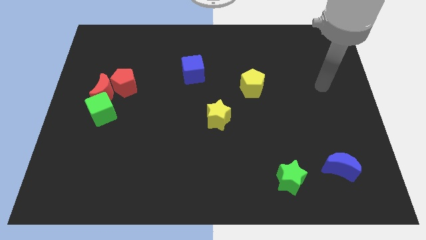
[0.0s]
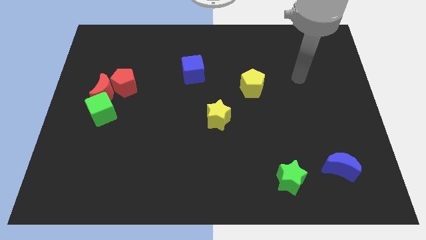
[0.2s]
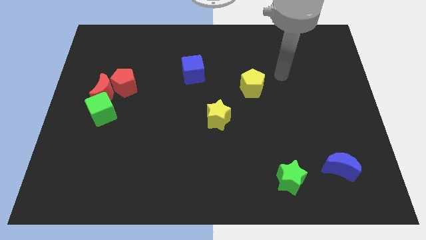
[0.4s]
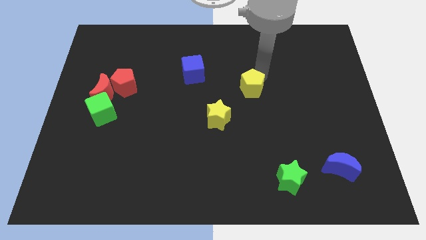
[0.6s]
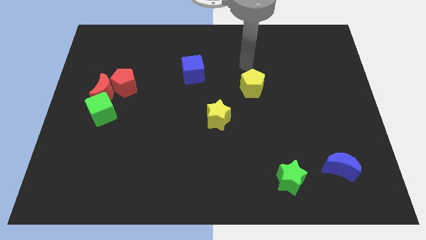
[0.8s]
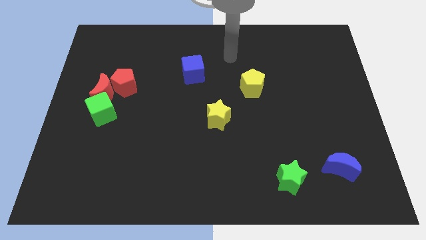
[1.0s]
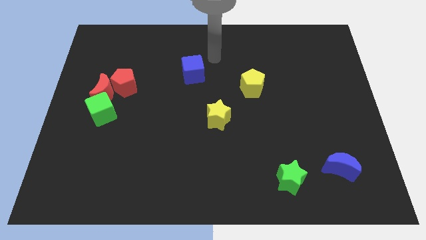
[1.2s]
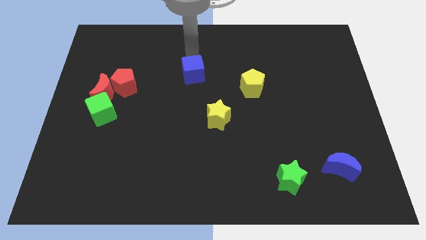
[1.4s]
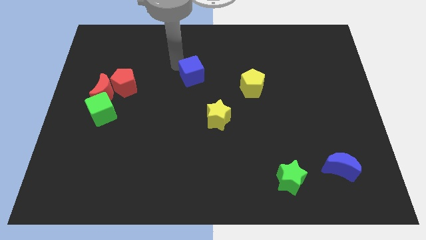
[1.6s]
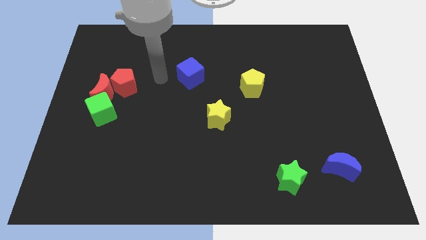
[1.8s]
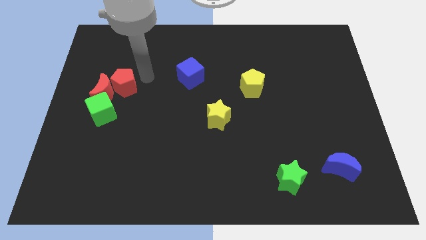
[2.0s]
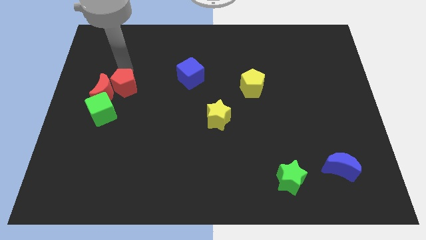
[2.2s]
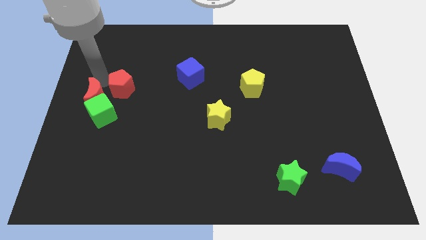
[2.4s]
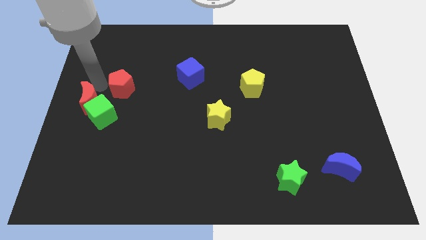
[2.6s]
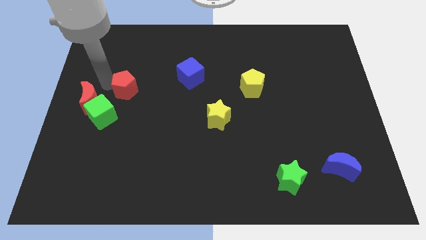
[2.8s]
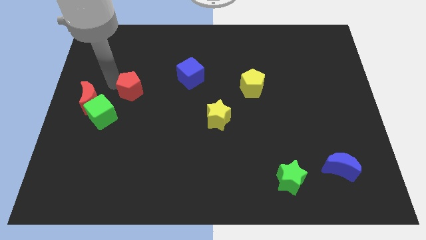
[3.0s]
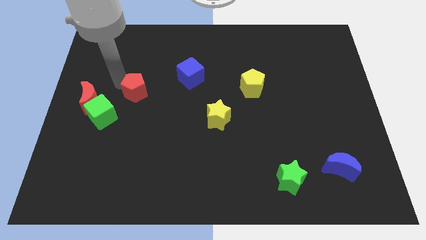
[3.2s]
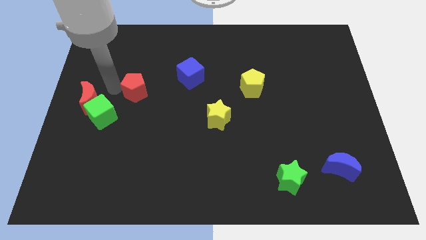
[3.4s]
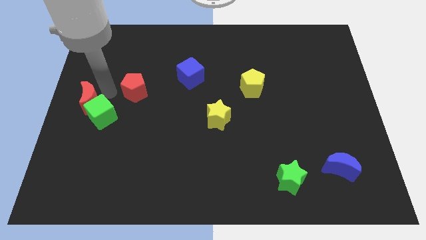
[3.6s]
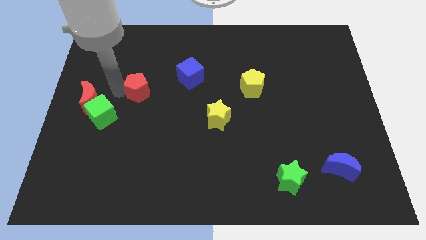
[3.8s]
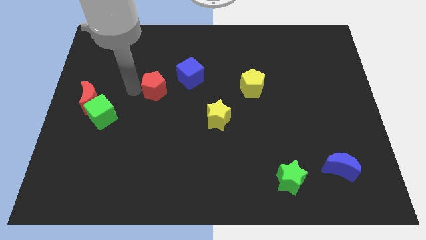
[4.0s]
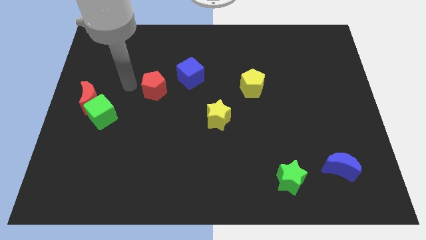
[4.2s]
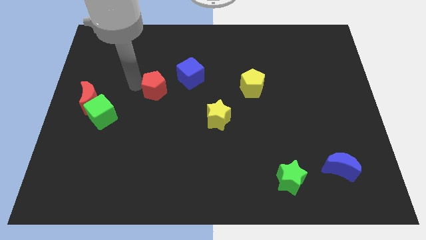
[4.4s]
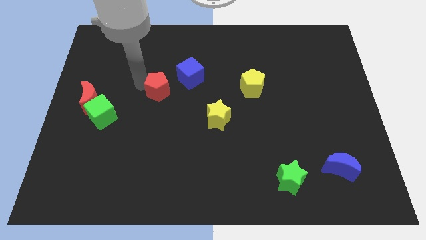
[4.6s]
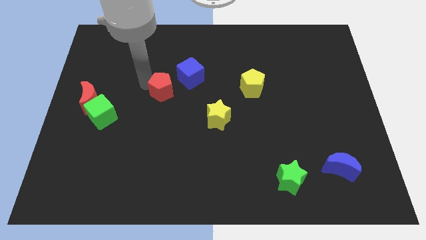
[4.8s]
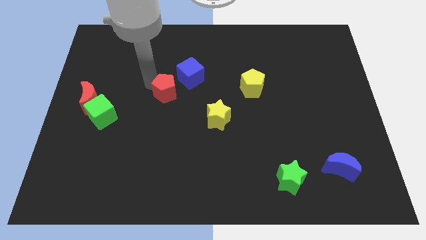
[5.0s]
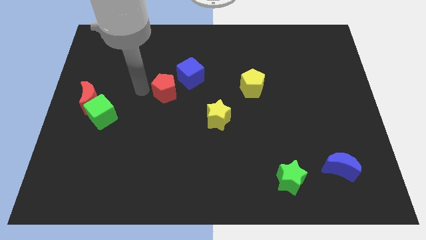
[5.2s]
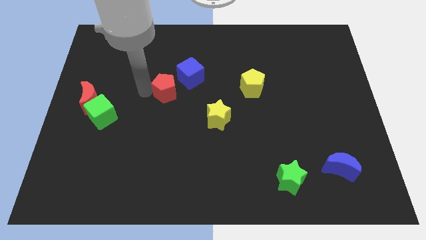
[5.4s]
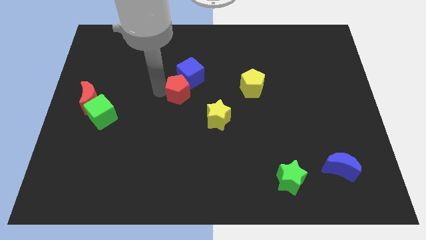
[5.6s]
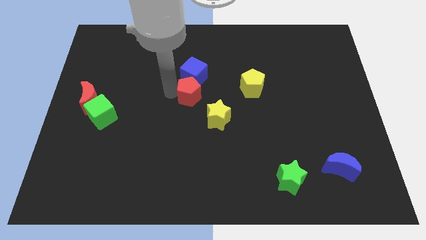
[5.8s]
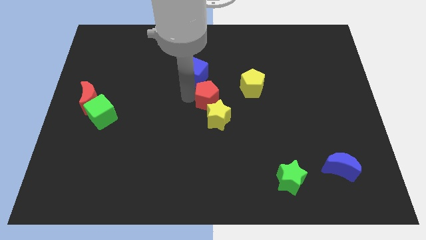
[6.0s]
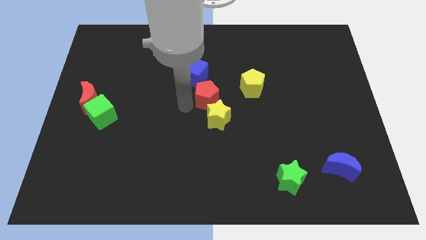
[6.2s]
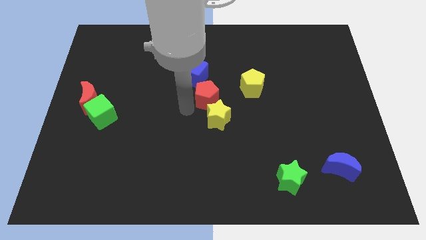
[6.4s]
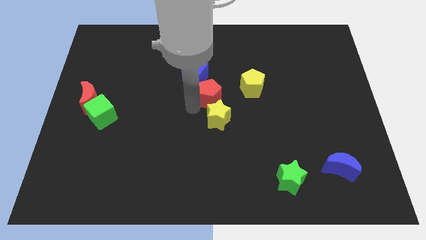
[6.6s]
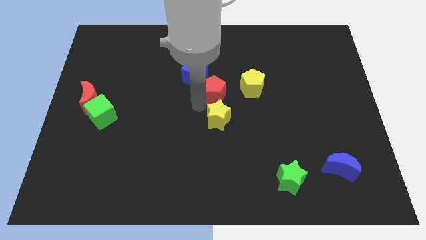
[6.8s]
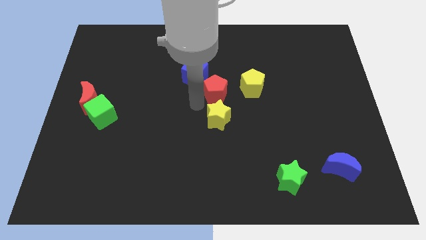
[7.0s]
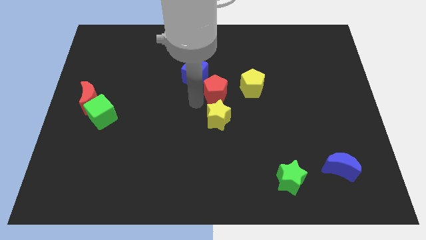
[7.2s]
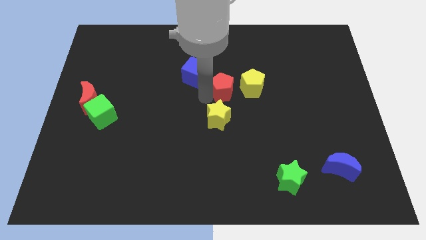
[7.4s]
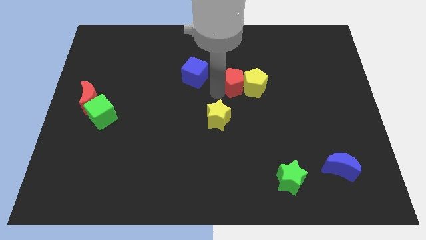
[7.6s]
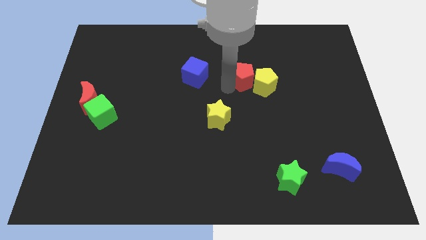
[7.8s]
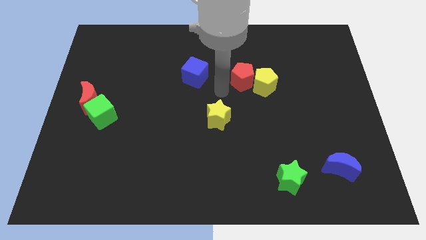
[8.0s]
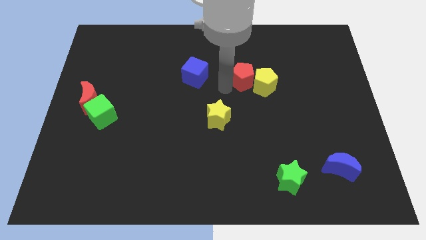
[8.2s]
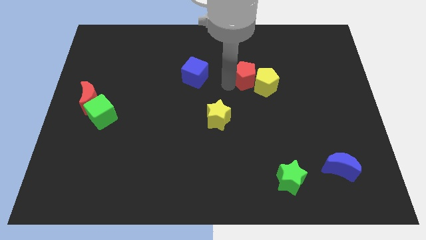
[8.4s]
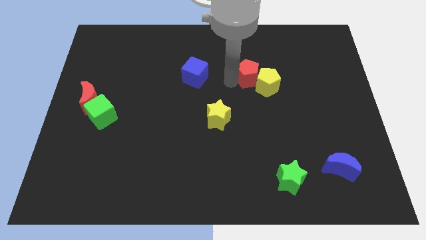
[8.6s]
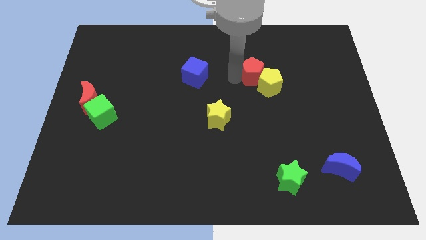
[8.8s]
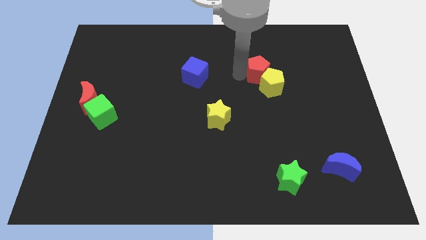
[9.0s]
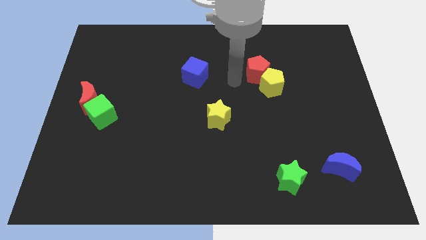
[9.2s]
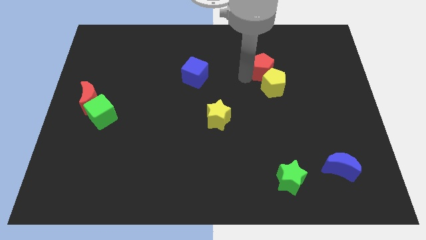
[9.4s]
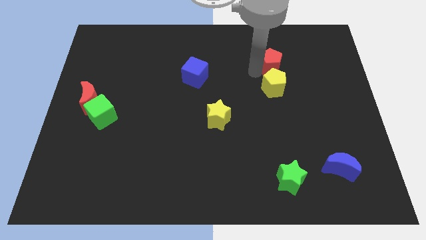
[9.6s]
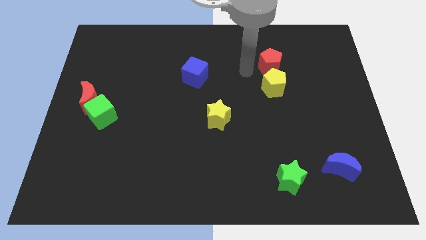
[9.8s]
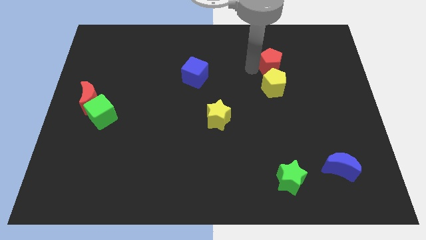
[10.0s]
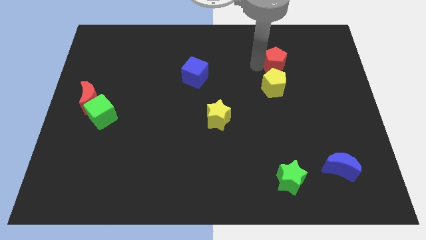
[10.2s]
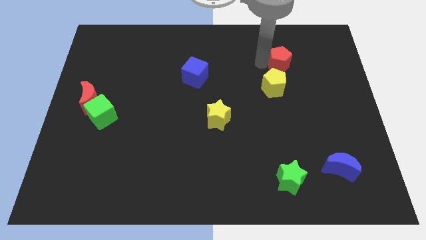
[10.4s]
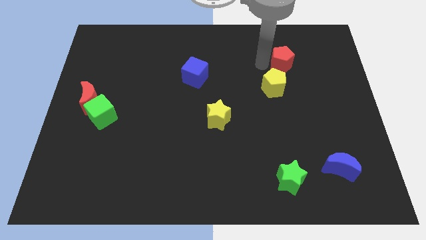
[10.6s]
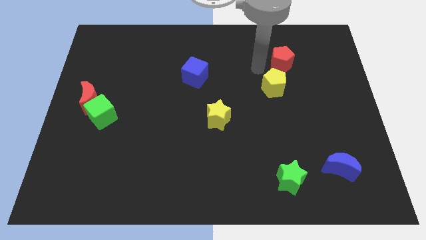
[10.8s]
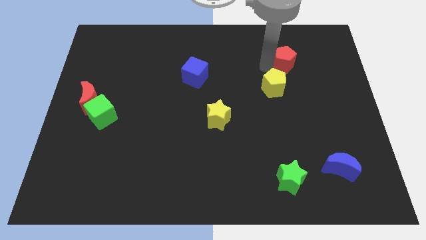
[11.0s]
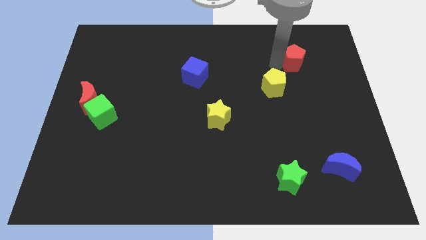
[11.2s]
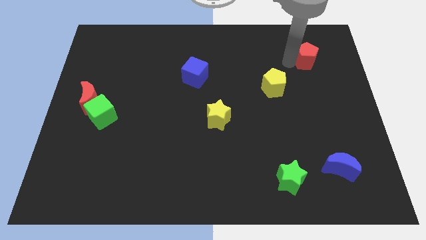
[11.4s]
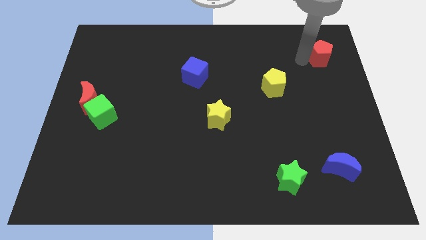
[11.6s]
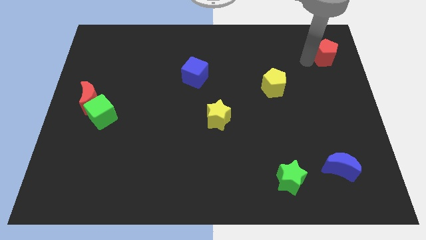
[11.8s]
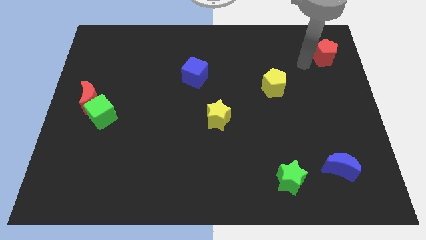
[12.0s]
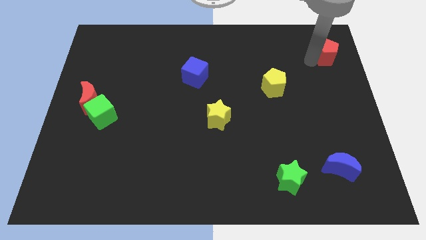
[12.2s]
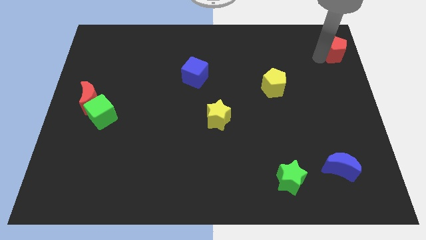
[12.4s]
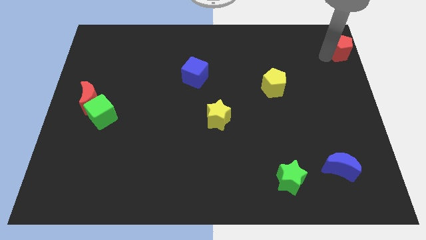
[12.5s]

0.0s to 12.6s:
put the red pentagon to the upper right corner

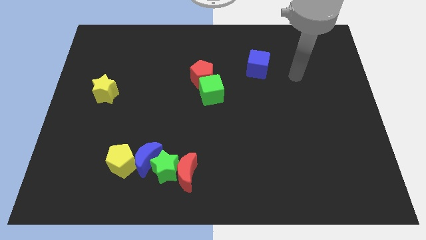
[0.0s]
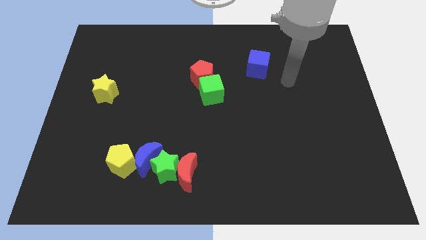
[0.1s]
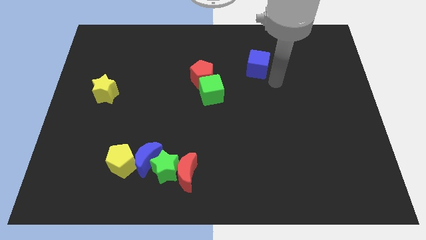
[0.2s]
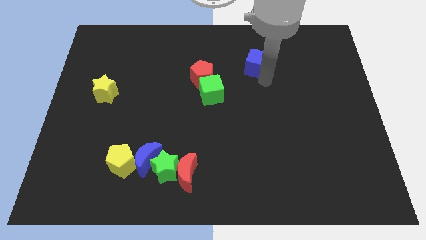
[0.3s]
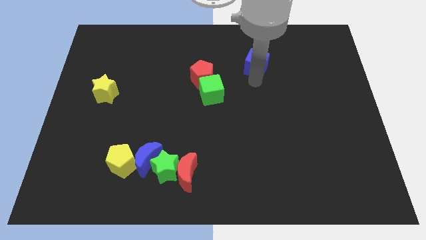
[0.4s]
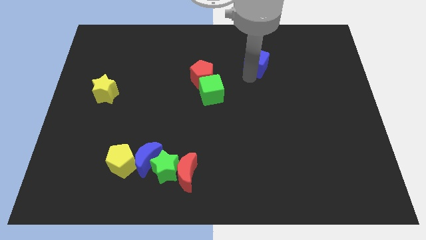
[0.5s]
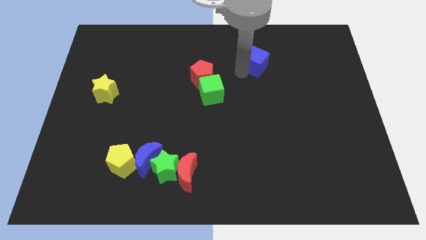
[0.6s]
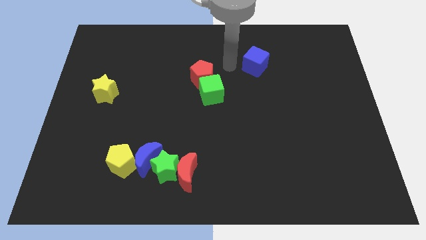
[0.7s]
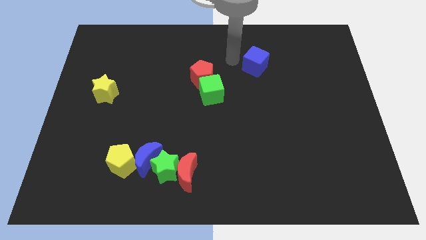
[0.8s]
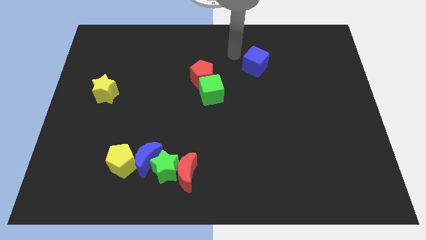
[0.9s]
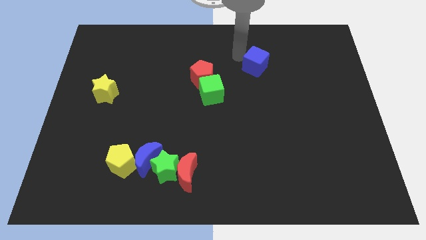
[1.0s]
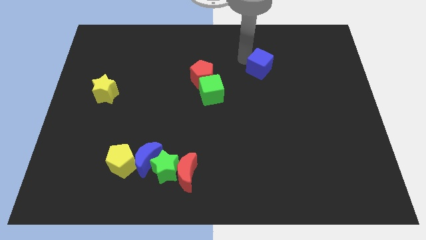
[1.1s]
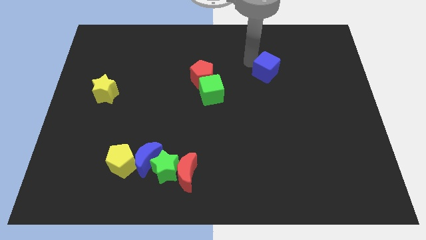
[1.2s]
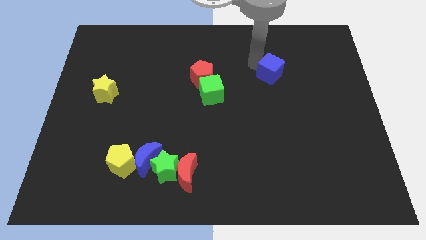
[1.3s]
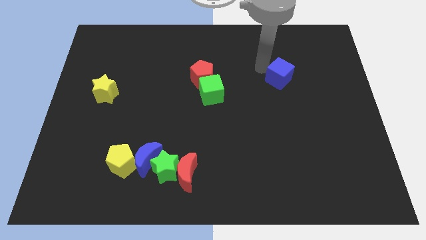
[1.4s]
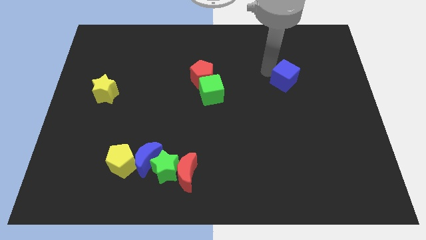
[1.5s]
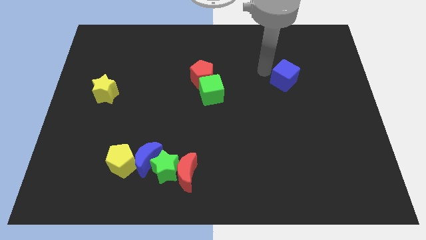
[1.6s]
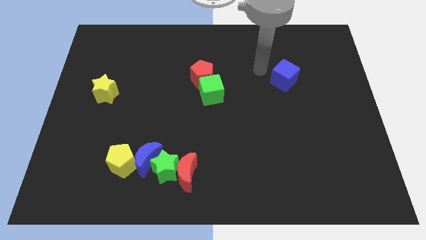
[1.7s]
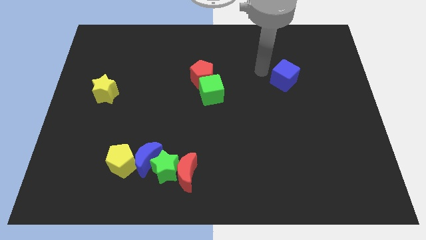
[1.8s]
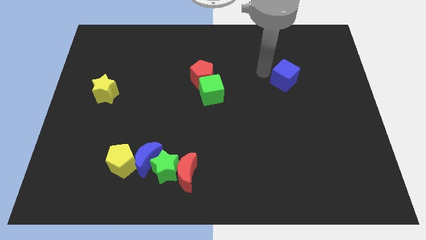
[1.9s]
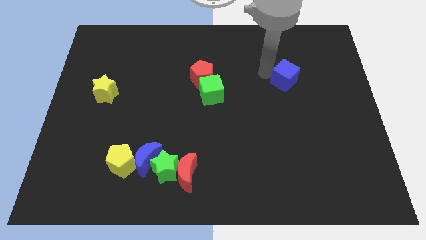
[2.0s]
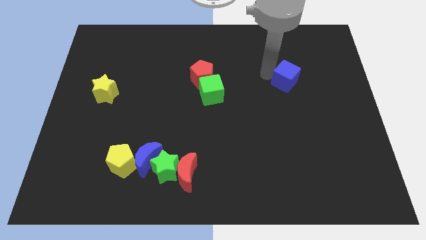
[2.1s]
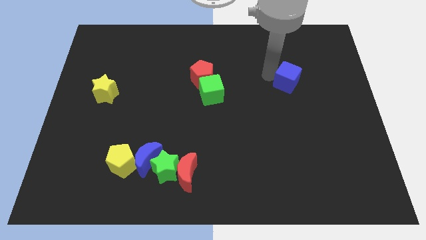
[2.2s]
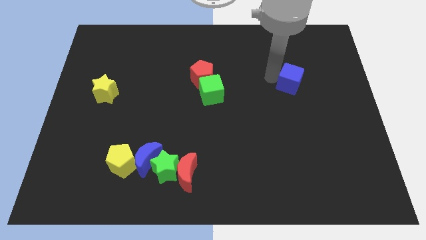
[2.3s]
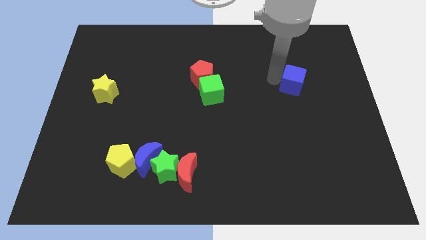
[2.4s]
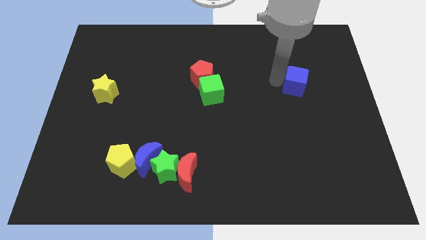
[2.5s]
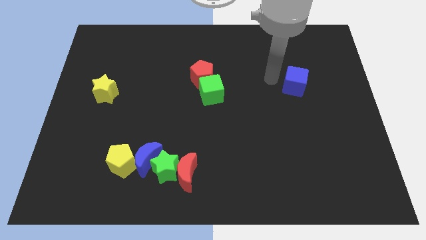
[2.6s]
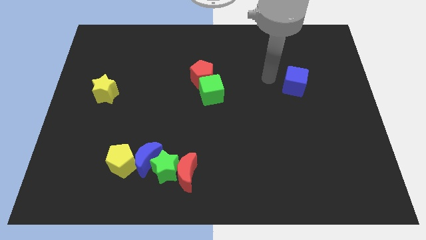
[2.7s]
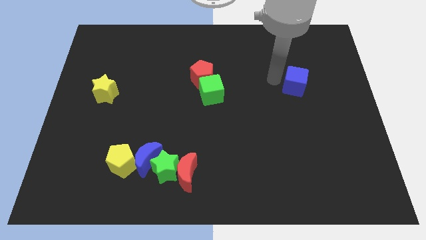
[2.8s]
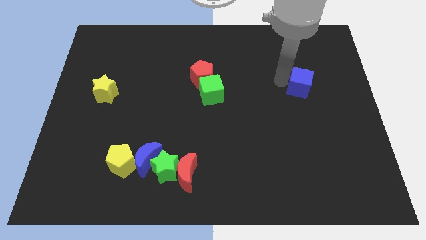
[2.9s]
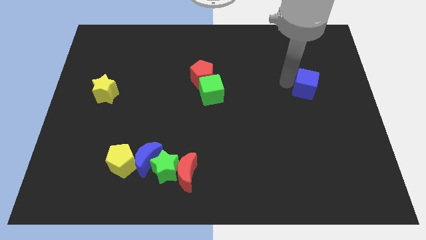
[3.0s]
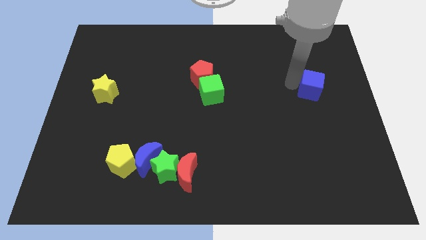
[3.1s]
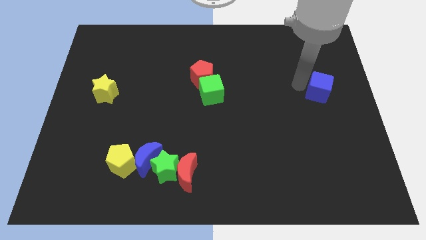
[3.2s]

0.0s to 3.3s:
move the blue cube to the right side
